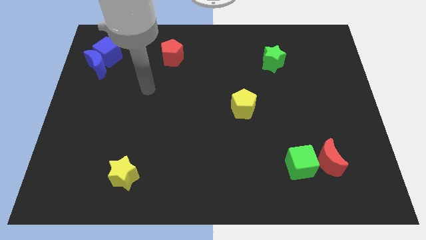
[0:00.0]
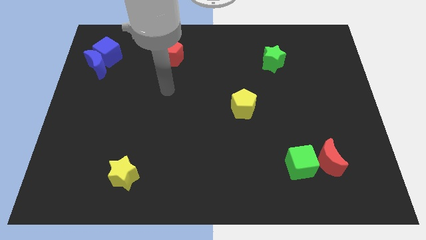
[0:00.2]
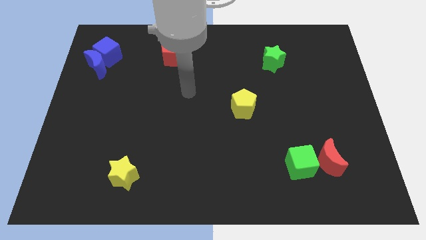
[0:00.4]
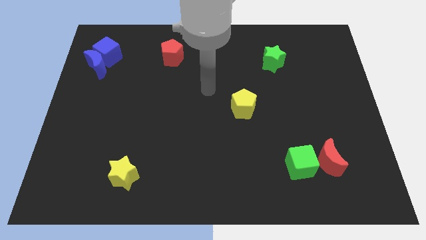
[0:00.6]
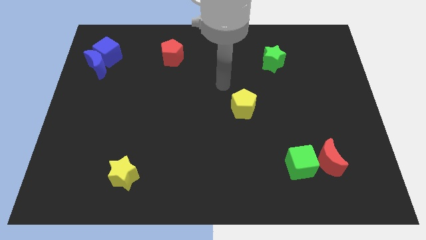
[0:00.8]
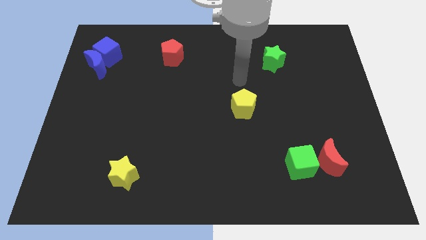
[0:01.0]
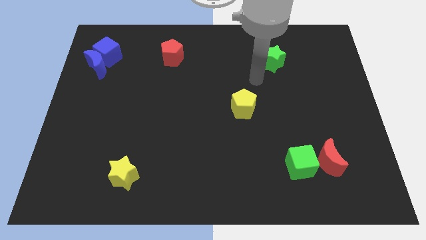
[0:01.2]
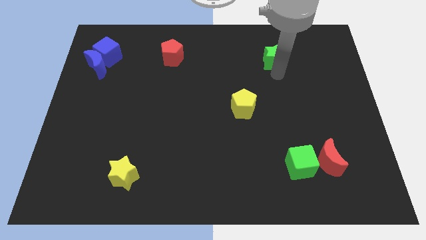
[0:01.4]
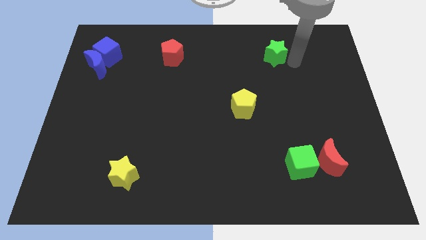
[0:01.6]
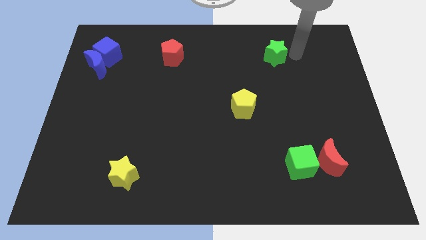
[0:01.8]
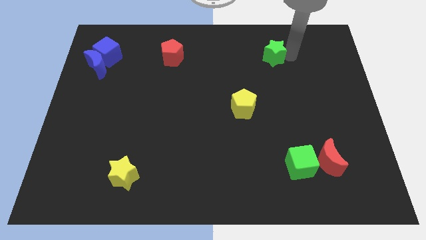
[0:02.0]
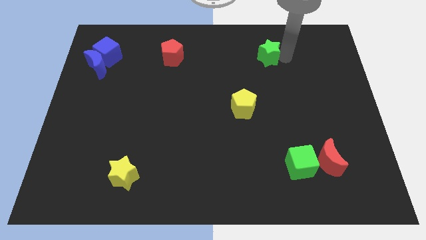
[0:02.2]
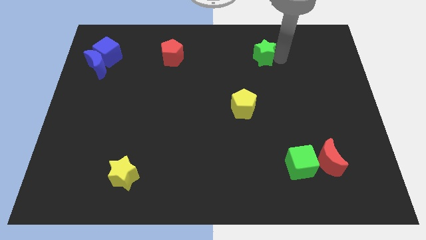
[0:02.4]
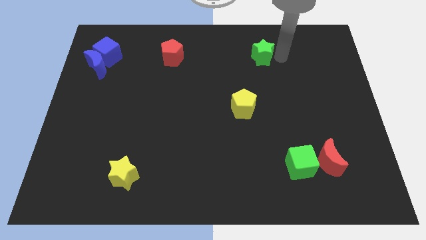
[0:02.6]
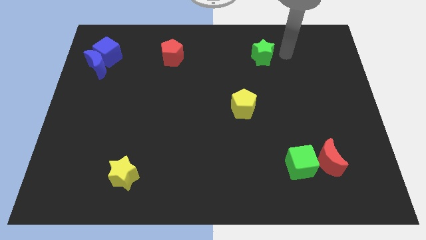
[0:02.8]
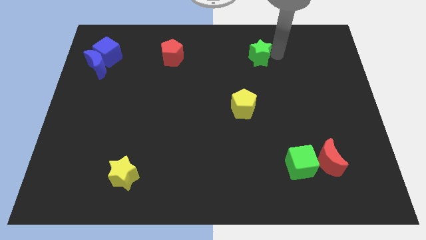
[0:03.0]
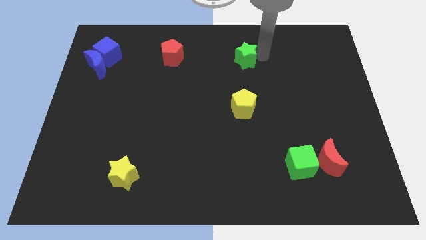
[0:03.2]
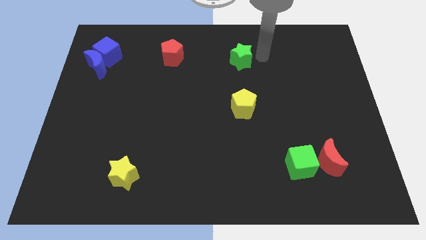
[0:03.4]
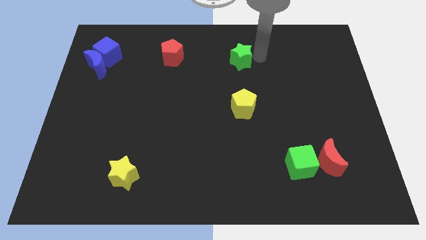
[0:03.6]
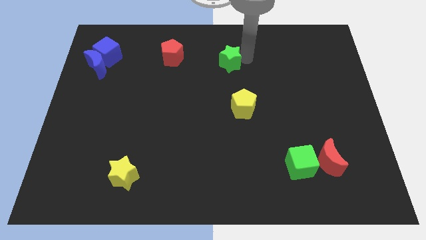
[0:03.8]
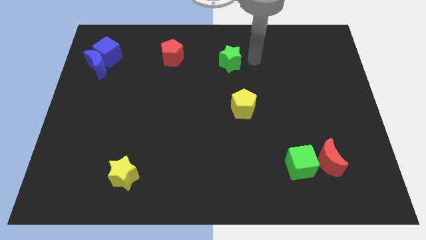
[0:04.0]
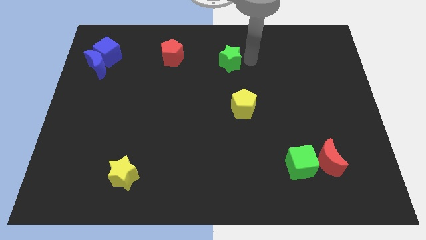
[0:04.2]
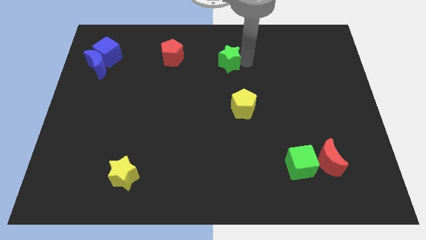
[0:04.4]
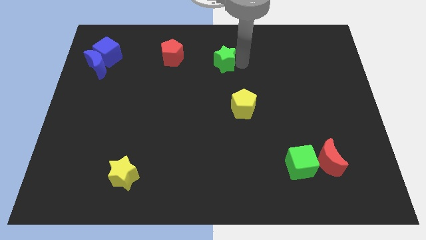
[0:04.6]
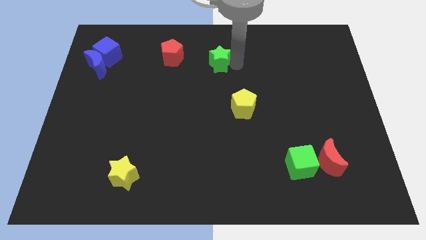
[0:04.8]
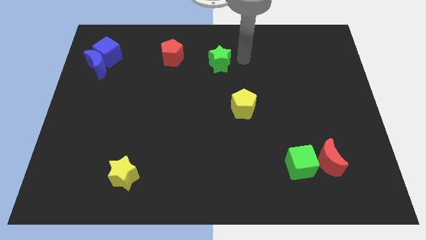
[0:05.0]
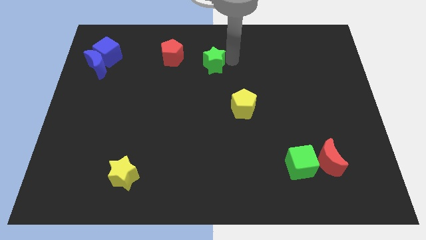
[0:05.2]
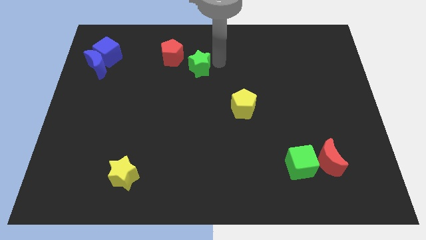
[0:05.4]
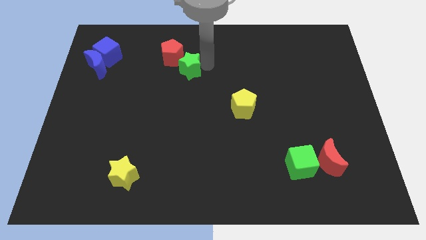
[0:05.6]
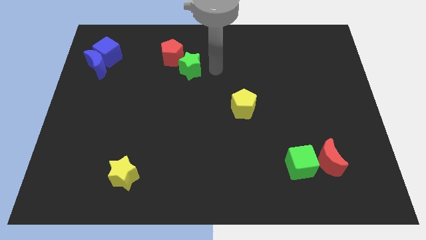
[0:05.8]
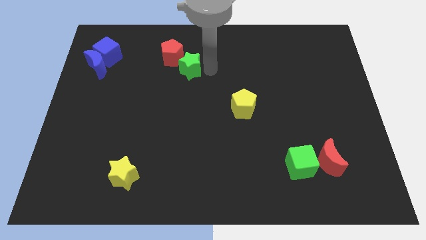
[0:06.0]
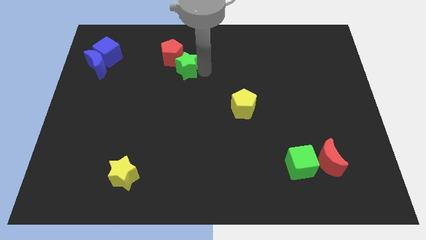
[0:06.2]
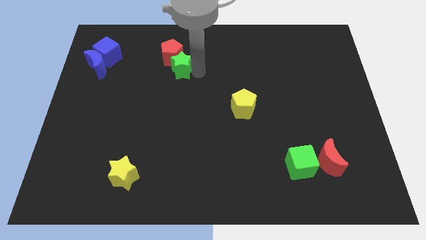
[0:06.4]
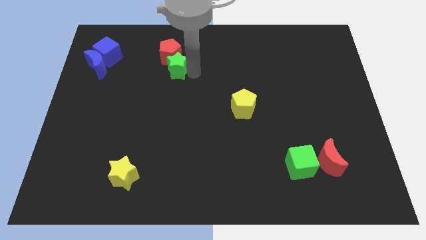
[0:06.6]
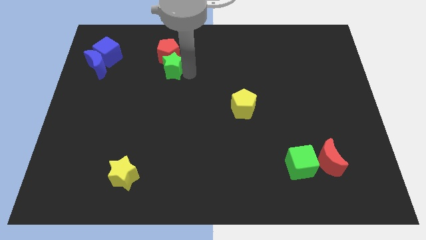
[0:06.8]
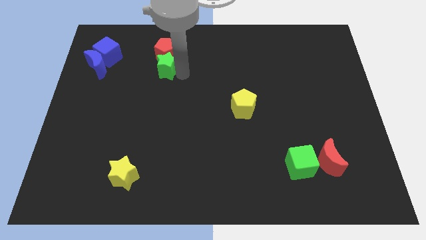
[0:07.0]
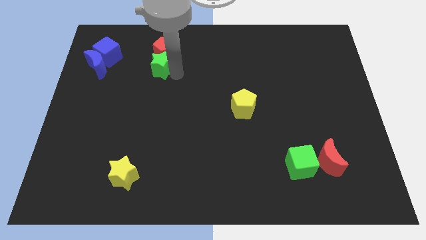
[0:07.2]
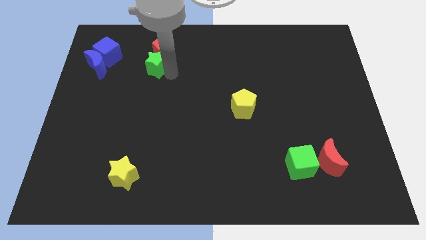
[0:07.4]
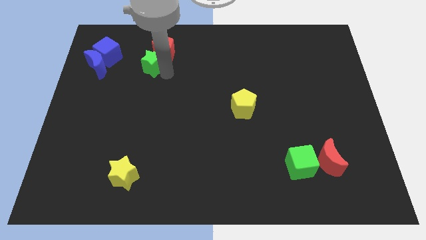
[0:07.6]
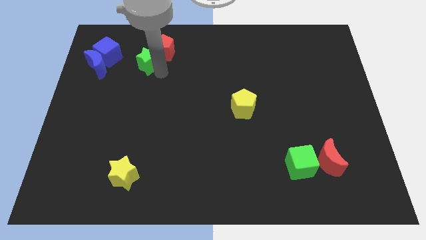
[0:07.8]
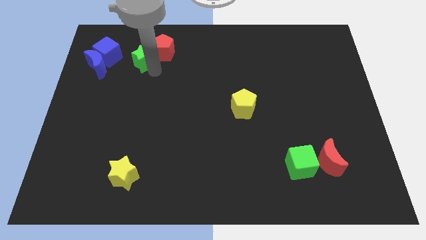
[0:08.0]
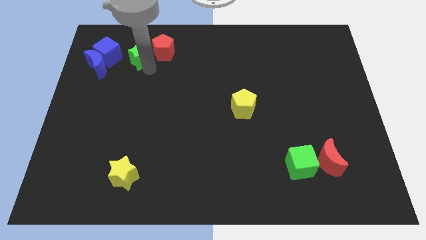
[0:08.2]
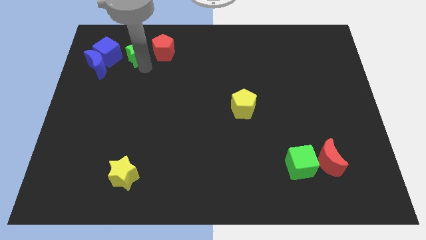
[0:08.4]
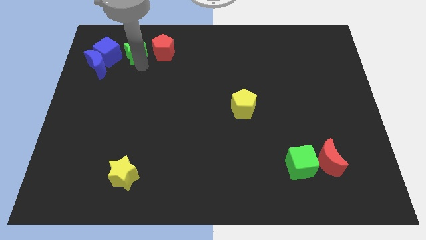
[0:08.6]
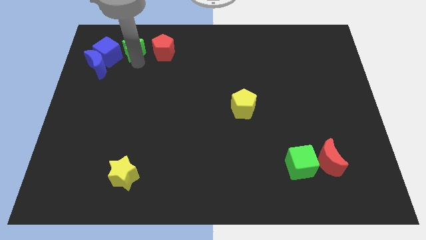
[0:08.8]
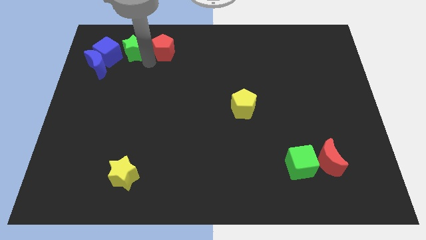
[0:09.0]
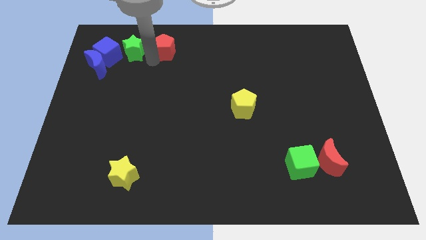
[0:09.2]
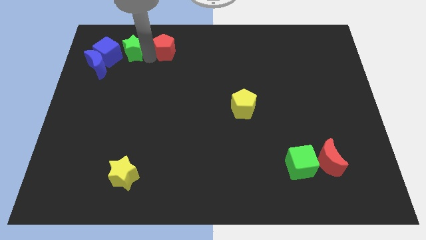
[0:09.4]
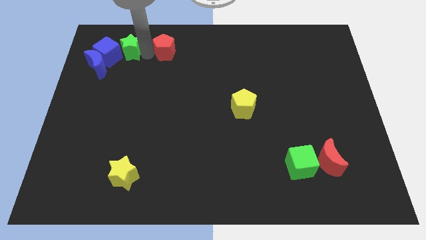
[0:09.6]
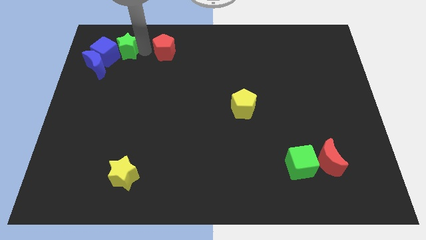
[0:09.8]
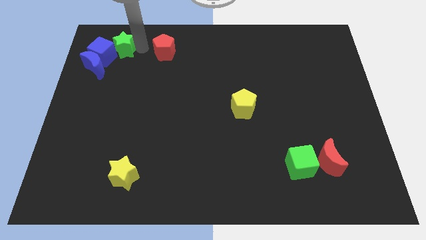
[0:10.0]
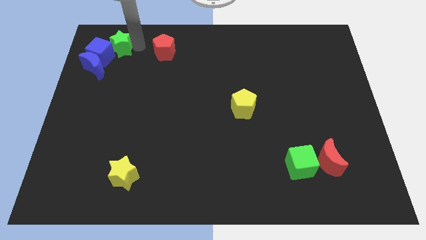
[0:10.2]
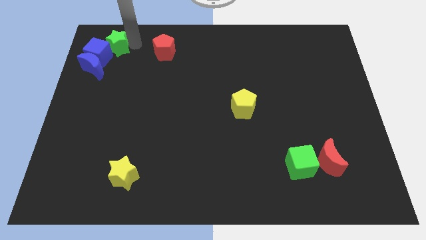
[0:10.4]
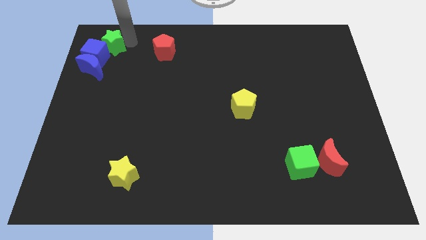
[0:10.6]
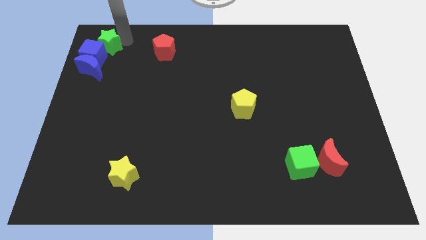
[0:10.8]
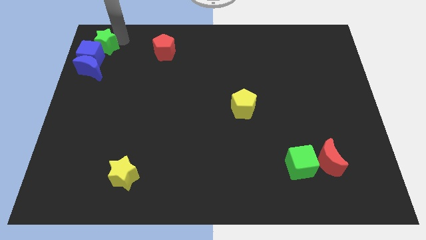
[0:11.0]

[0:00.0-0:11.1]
put the green star to the upper left corner

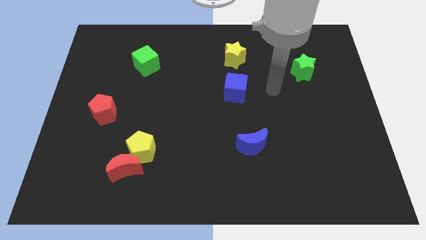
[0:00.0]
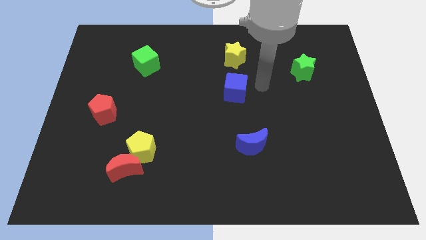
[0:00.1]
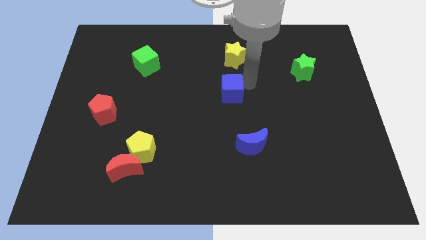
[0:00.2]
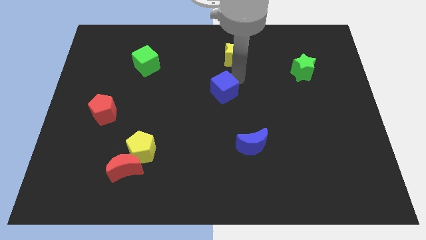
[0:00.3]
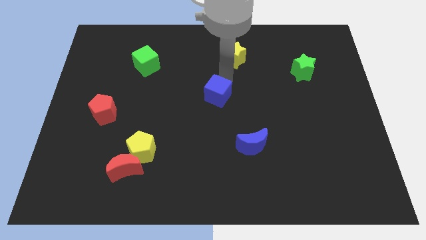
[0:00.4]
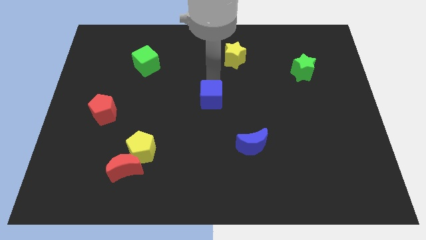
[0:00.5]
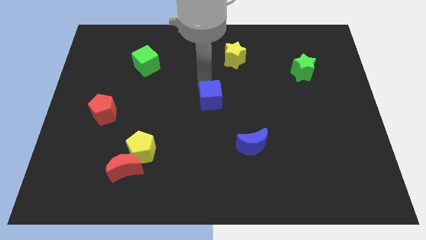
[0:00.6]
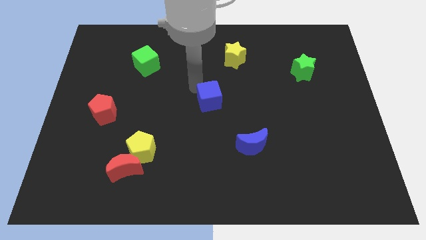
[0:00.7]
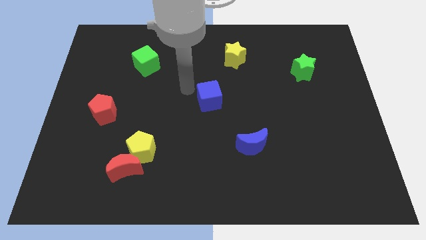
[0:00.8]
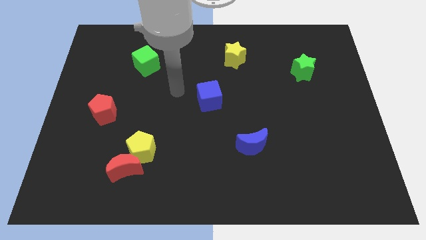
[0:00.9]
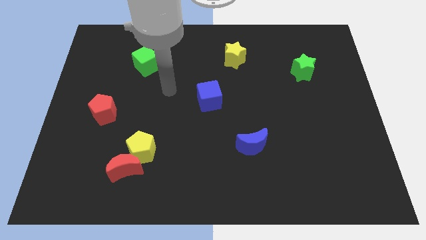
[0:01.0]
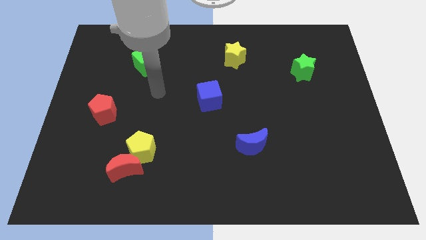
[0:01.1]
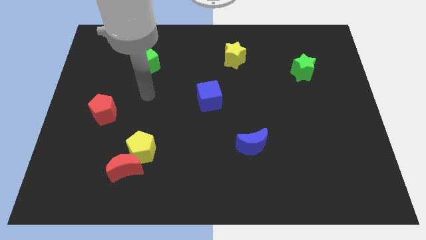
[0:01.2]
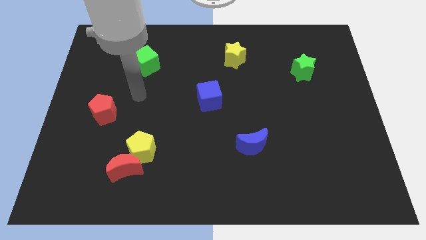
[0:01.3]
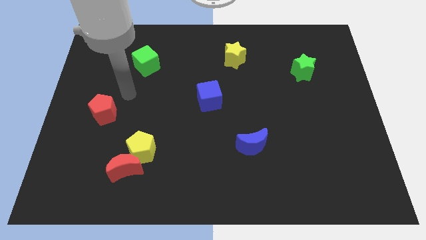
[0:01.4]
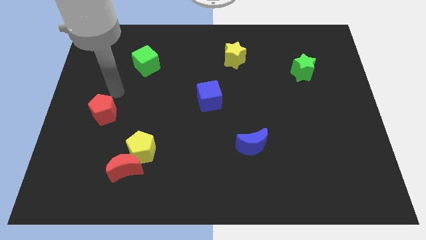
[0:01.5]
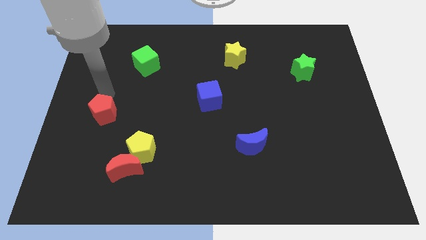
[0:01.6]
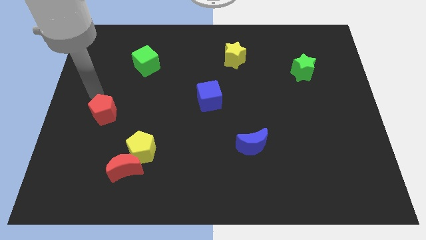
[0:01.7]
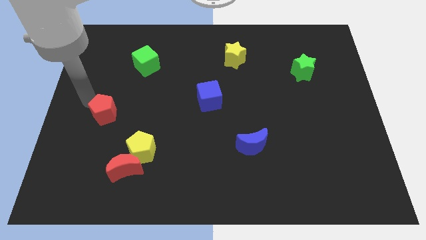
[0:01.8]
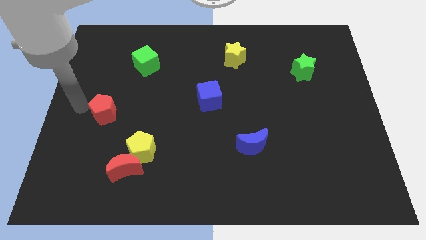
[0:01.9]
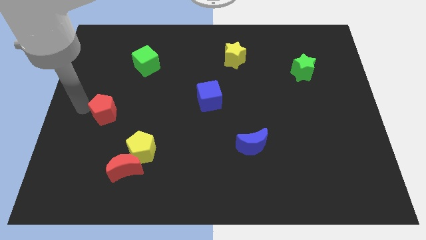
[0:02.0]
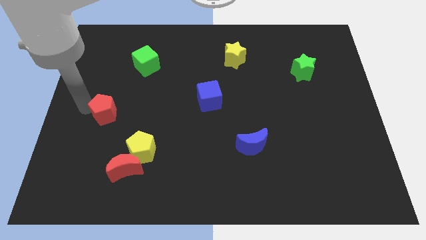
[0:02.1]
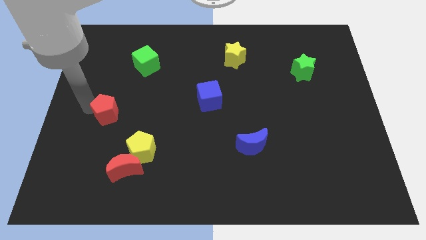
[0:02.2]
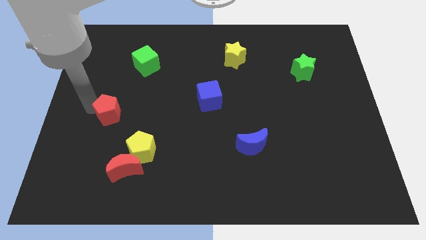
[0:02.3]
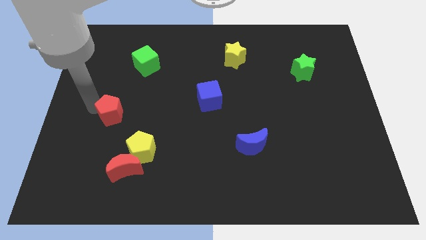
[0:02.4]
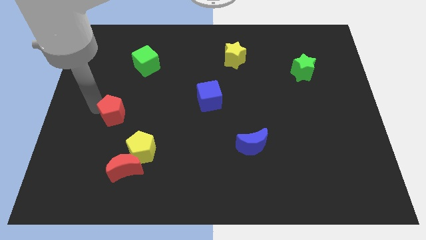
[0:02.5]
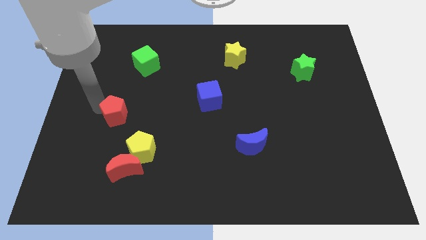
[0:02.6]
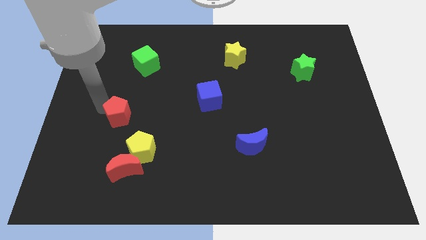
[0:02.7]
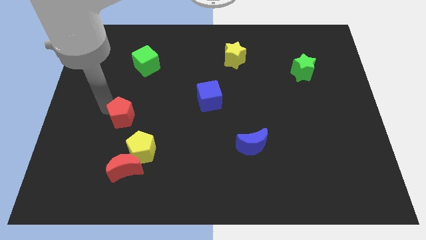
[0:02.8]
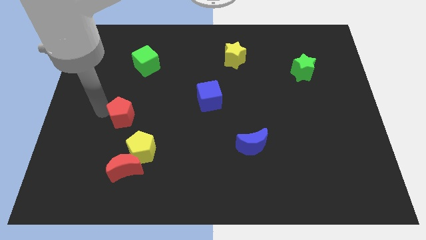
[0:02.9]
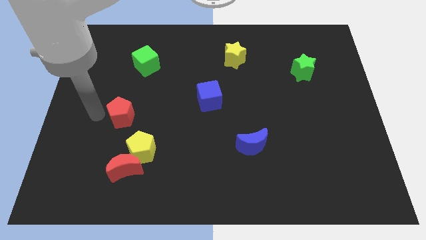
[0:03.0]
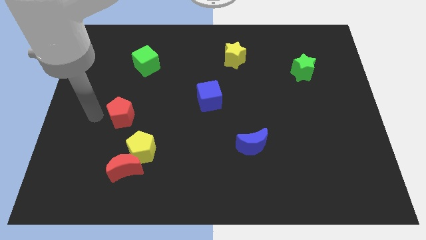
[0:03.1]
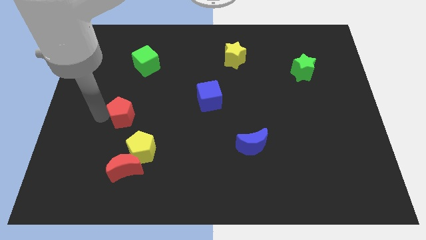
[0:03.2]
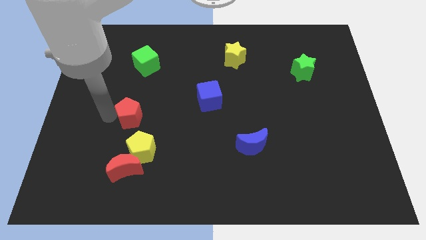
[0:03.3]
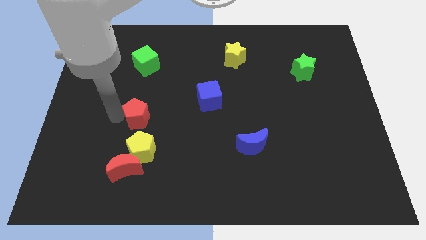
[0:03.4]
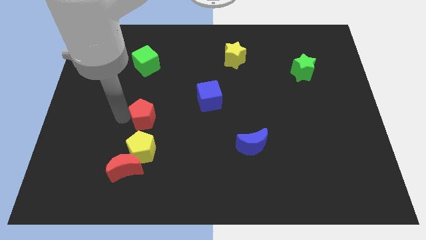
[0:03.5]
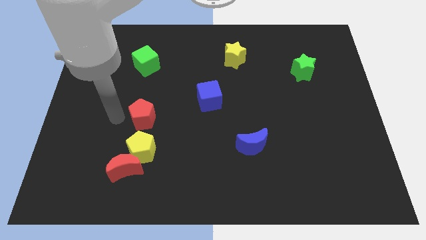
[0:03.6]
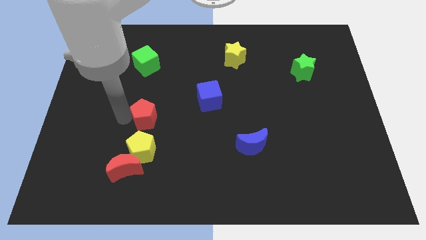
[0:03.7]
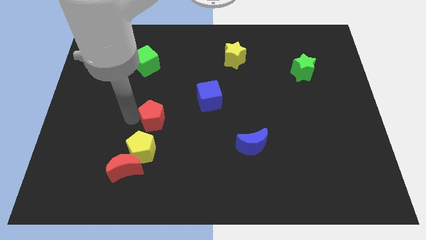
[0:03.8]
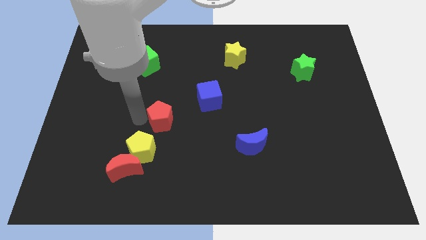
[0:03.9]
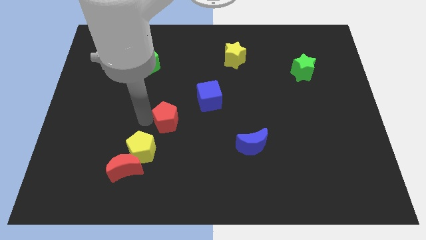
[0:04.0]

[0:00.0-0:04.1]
slide the red pentagon to the center
